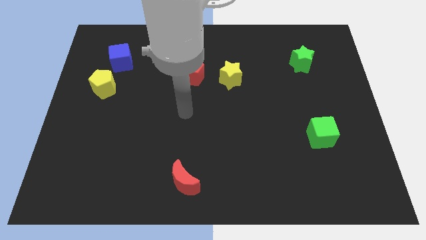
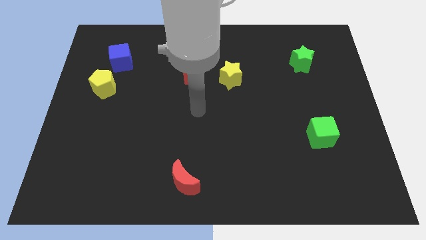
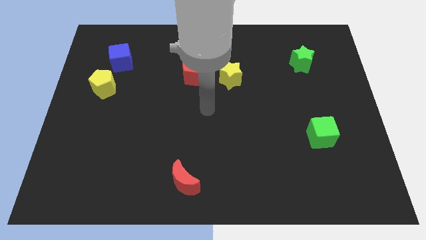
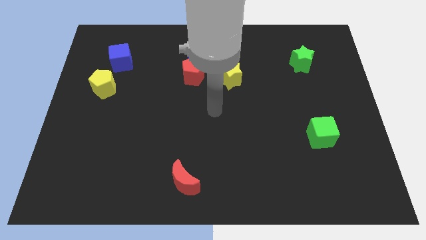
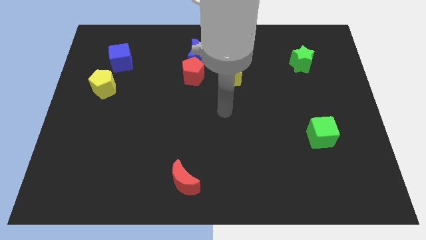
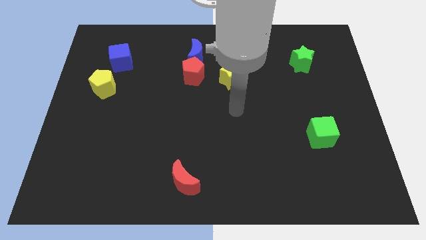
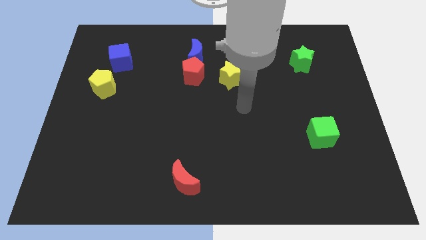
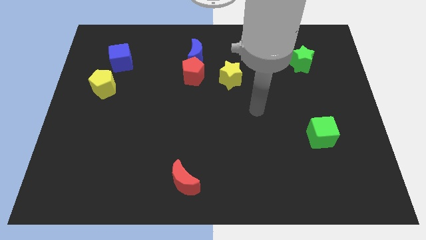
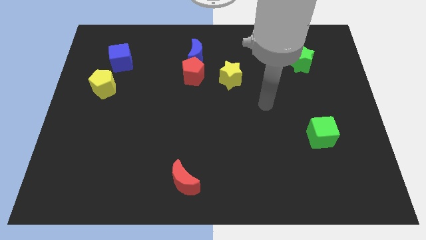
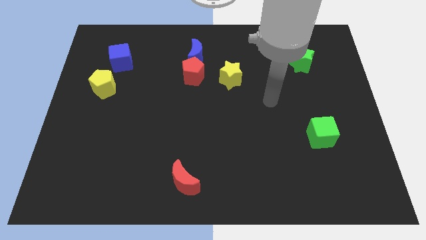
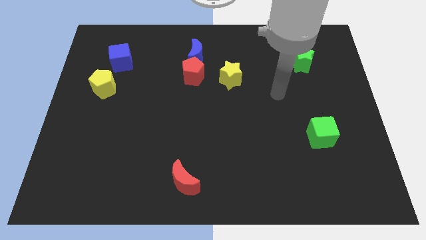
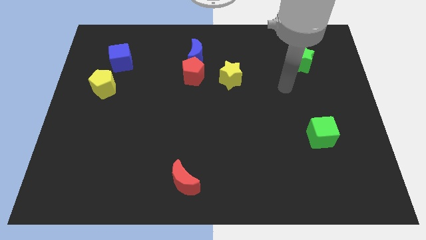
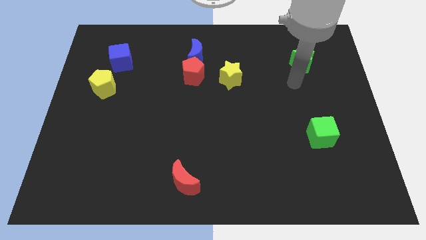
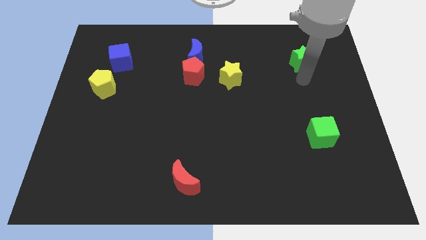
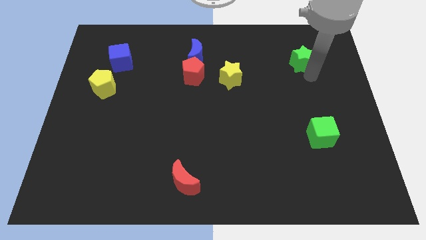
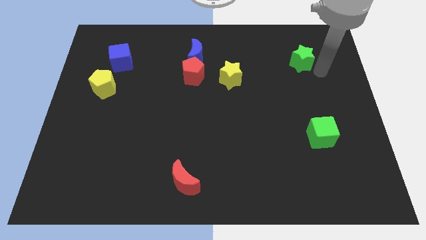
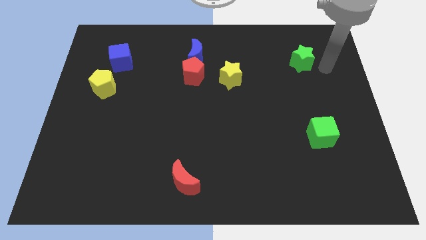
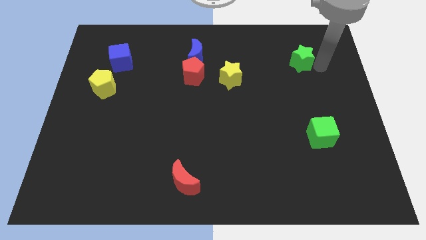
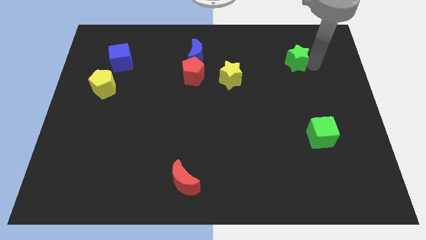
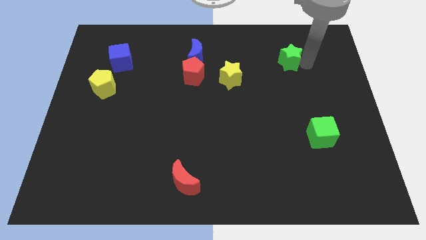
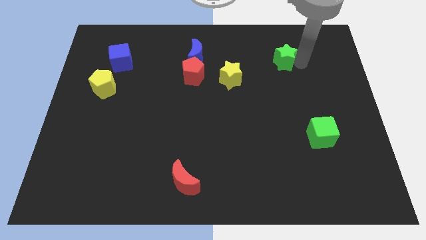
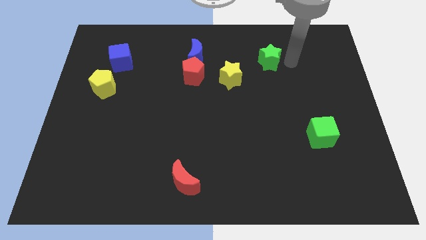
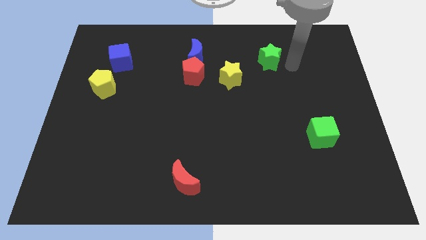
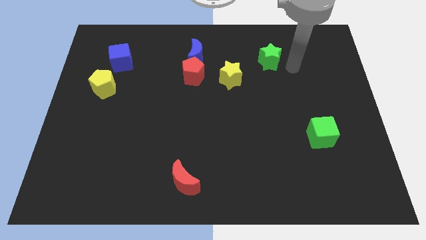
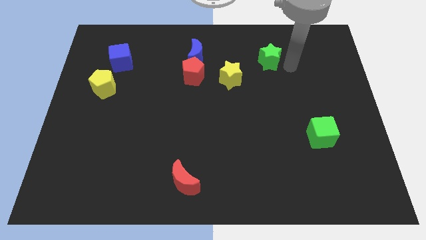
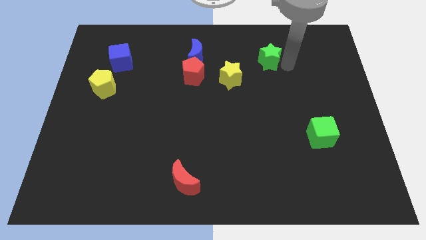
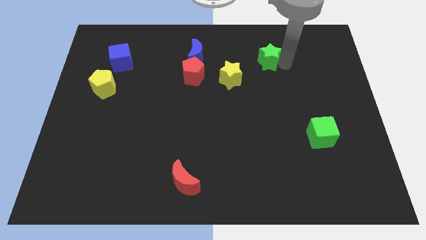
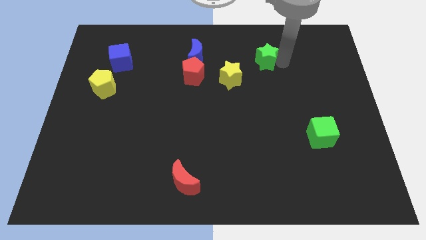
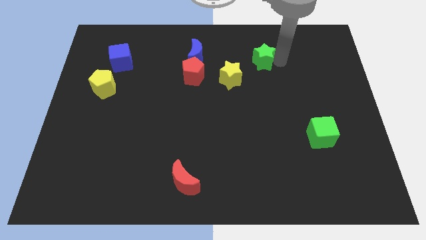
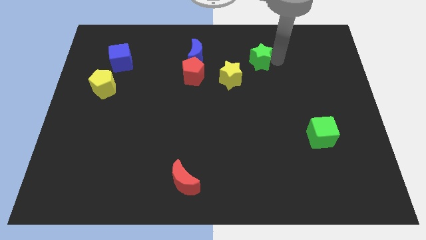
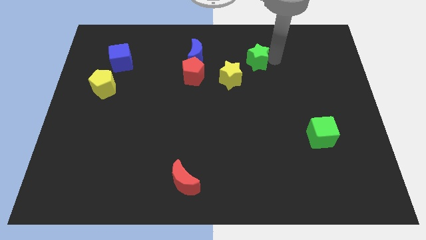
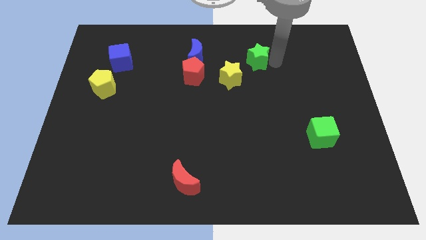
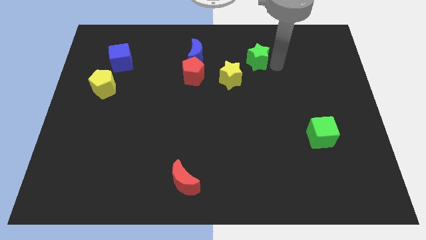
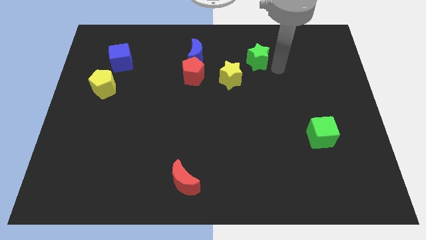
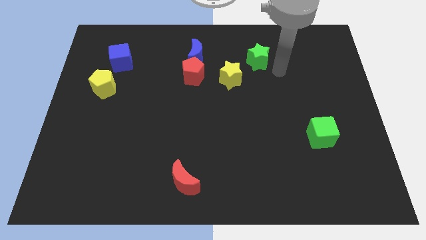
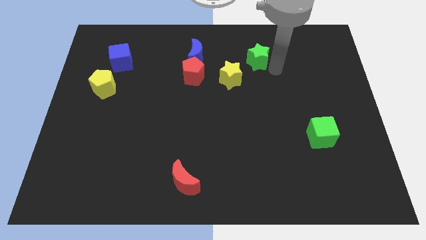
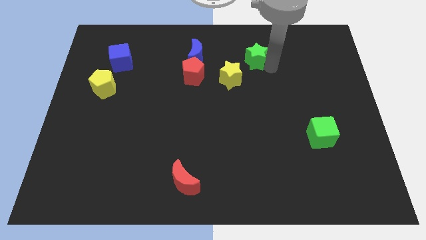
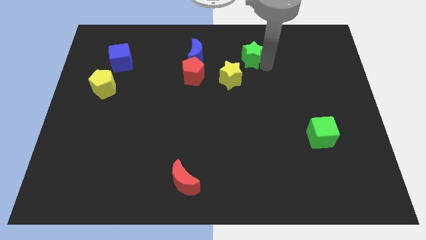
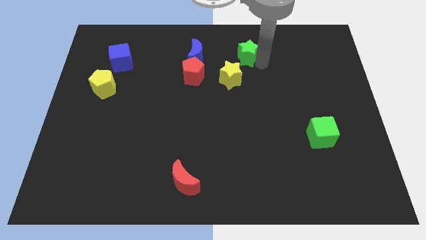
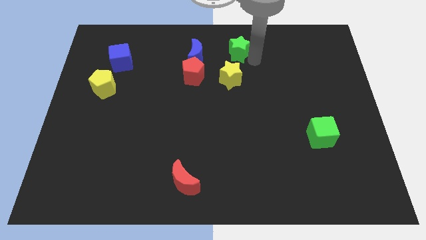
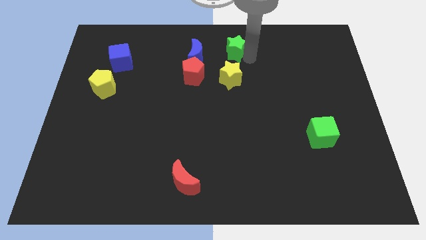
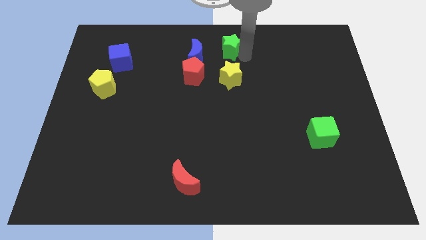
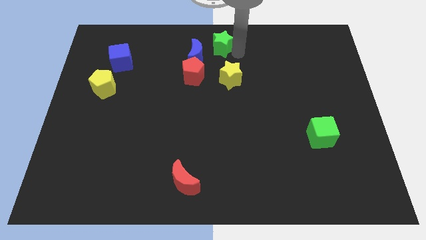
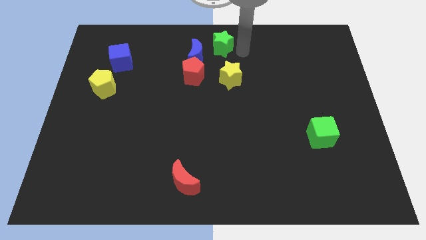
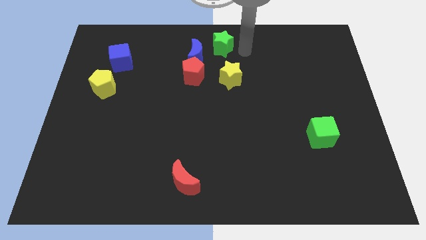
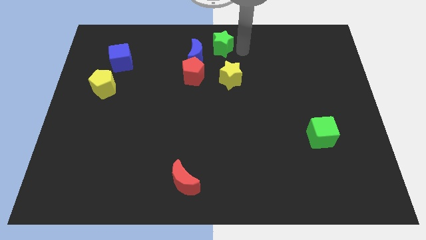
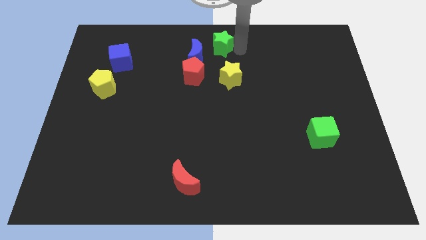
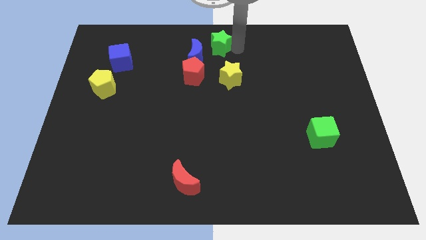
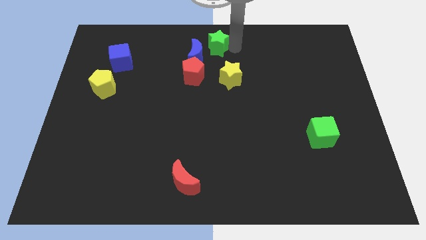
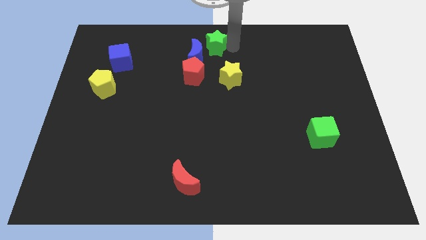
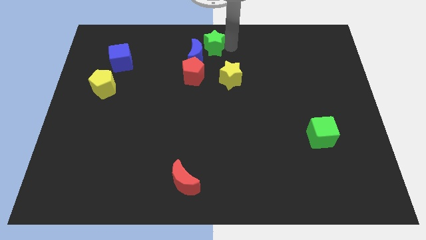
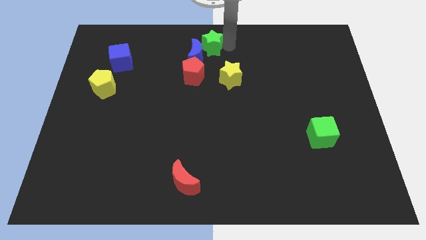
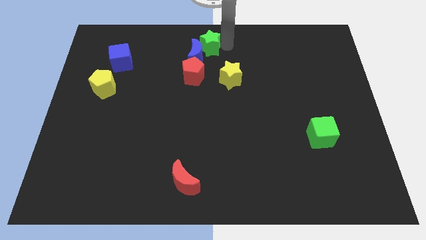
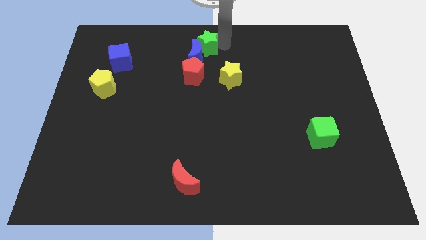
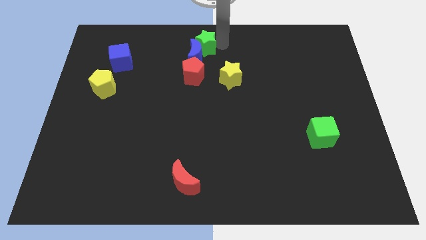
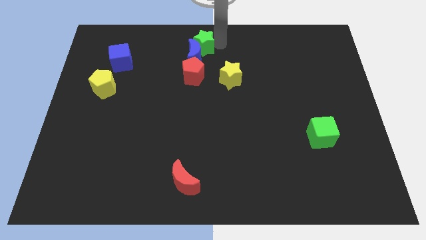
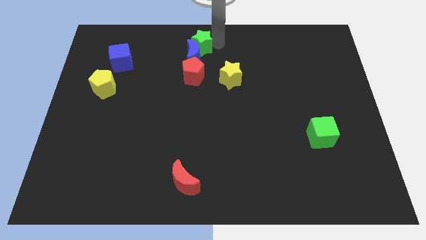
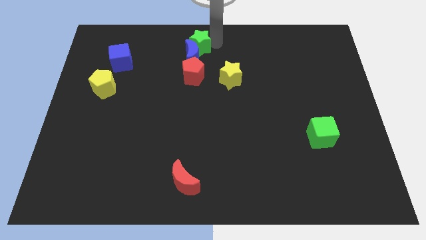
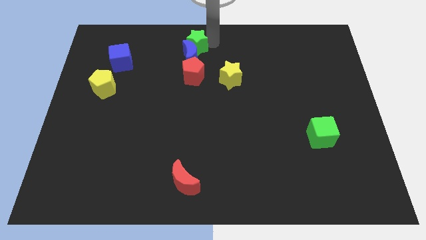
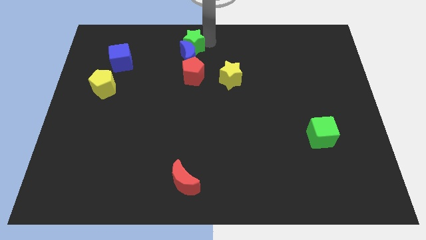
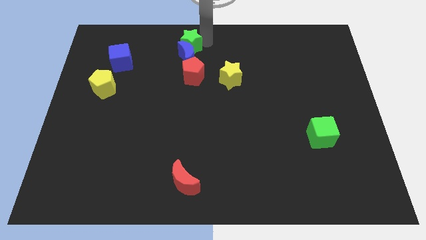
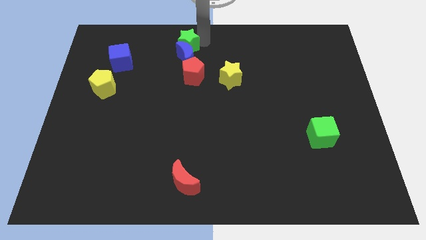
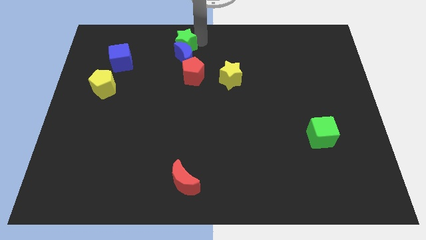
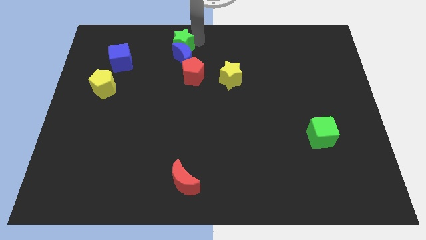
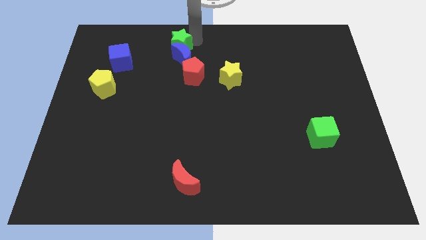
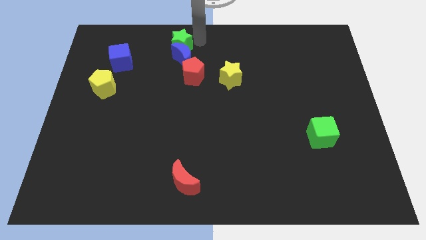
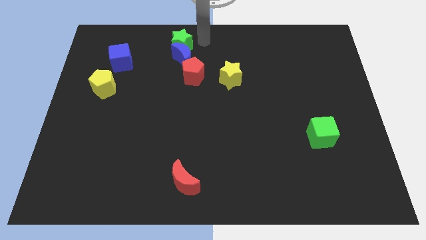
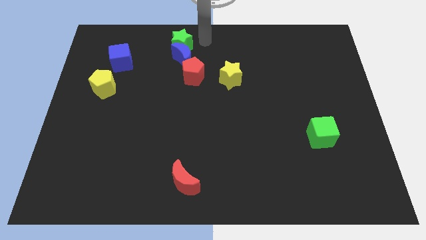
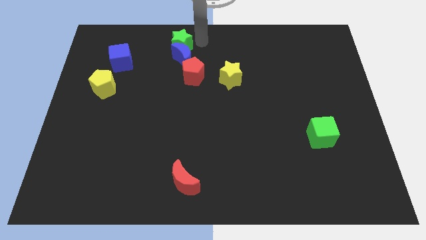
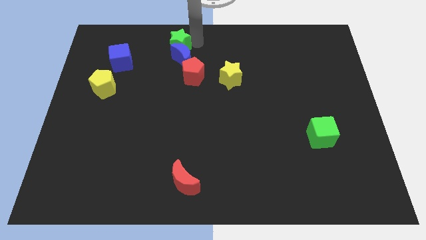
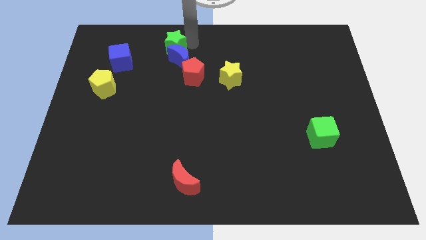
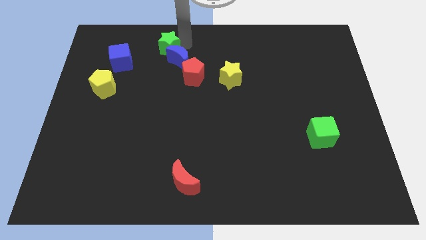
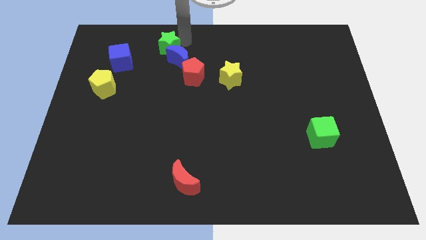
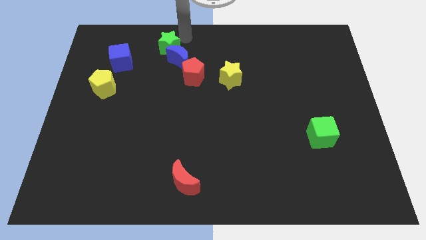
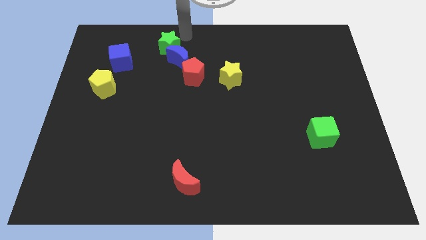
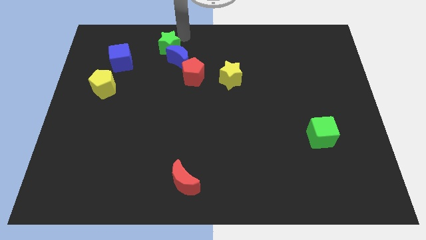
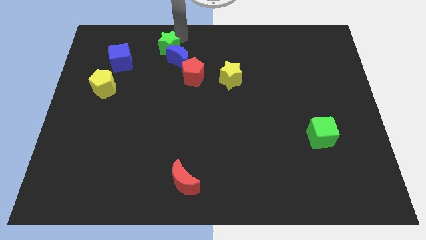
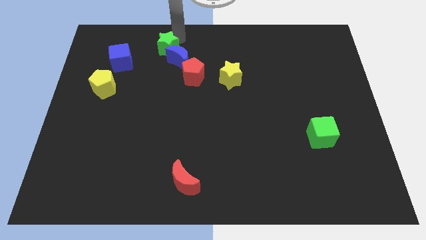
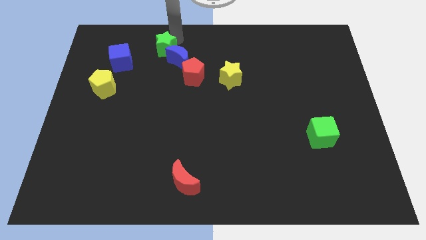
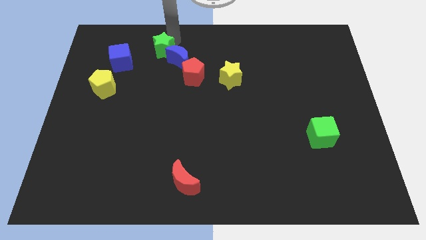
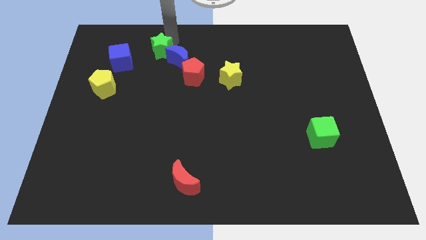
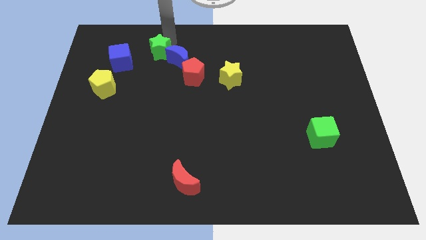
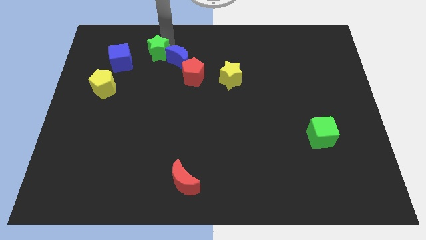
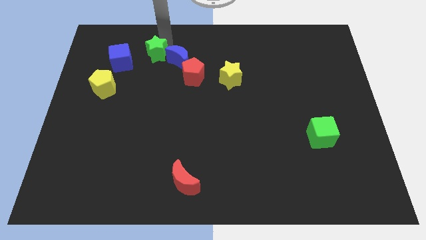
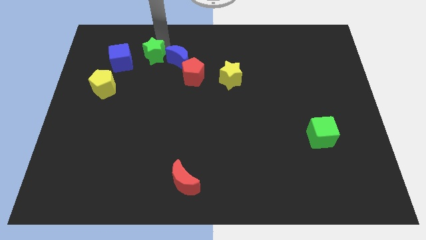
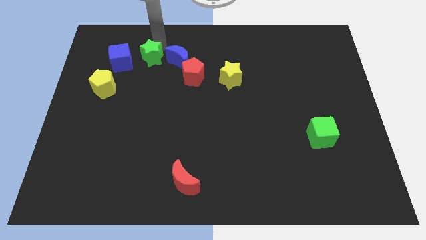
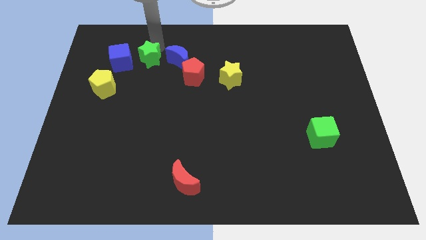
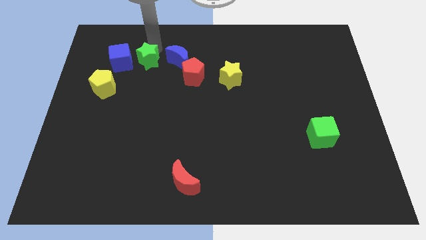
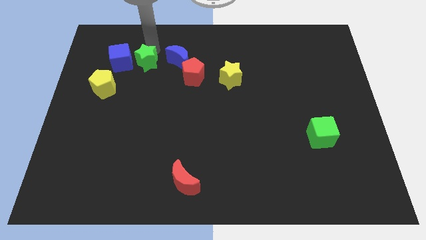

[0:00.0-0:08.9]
move the green star to the bottom right side of the blue cube
